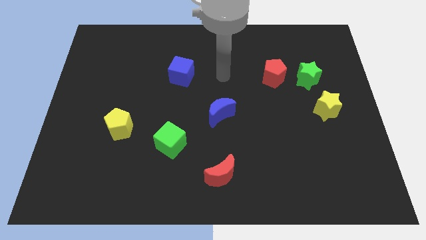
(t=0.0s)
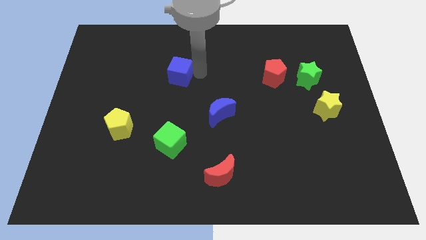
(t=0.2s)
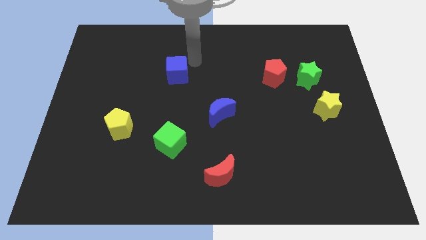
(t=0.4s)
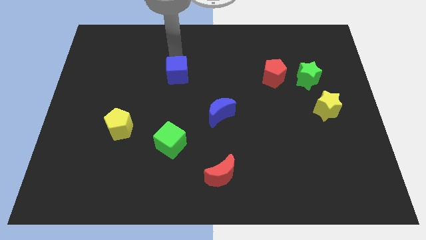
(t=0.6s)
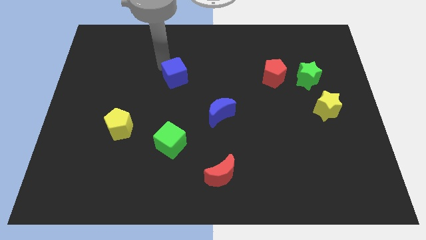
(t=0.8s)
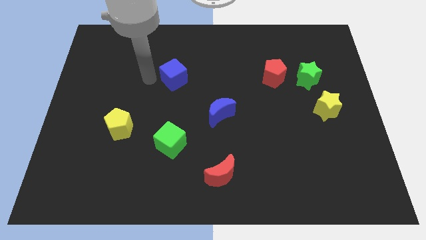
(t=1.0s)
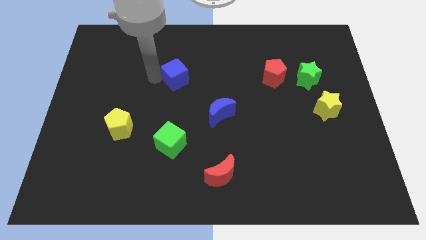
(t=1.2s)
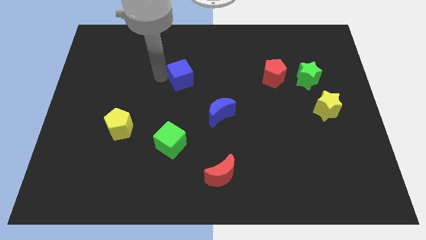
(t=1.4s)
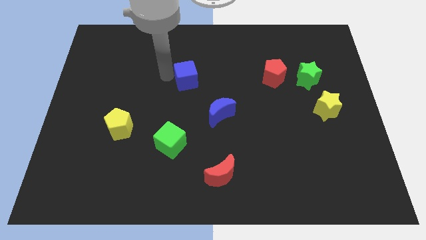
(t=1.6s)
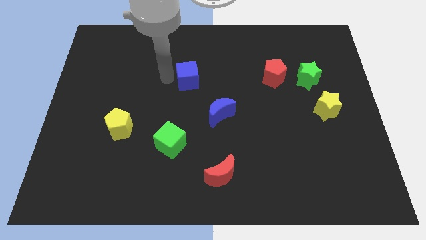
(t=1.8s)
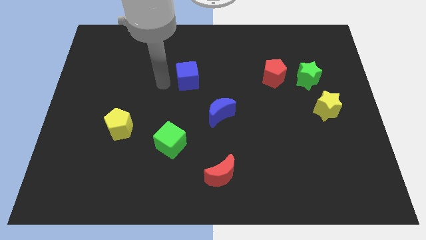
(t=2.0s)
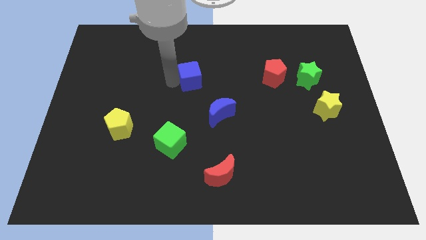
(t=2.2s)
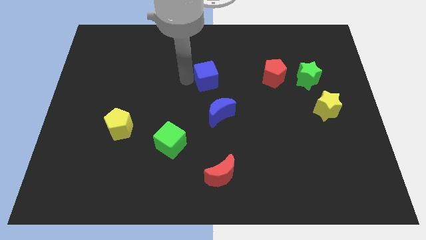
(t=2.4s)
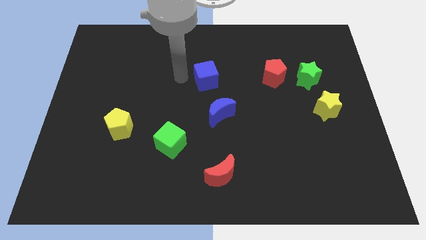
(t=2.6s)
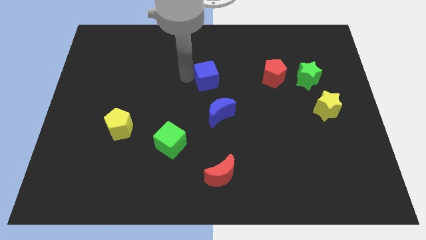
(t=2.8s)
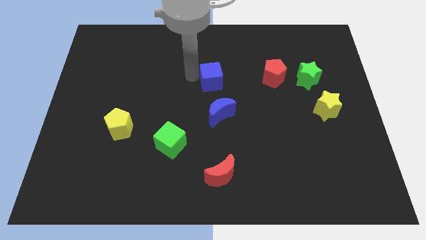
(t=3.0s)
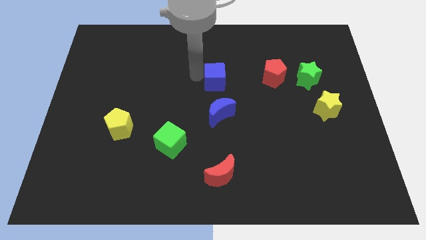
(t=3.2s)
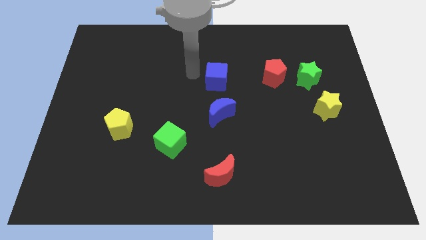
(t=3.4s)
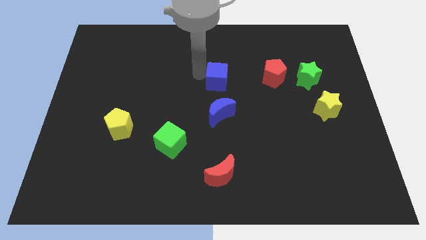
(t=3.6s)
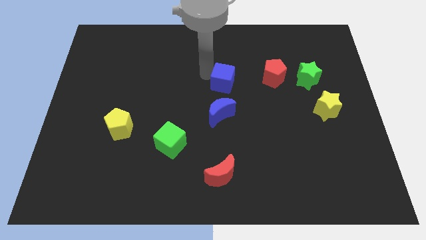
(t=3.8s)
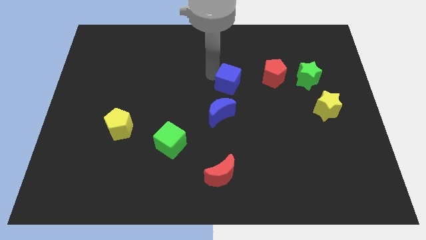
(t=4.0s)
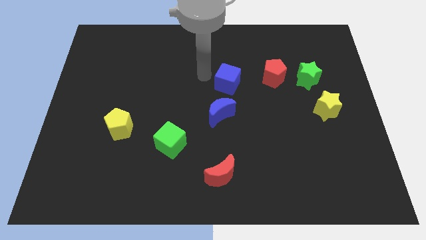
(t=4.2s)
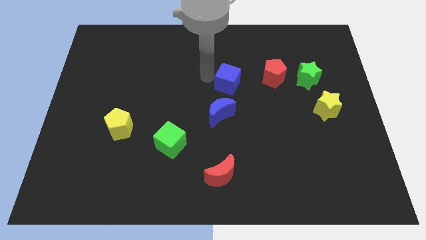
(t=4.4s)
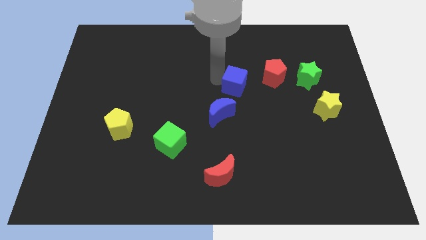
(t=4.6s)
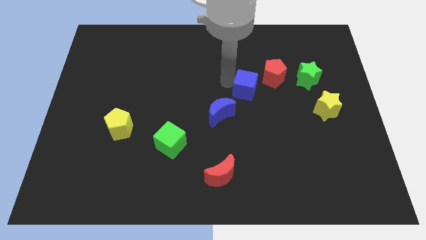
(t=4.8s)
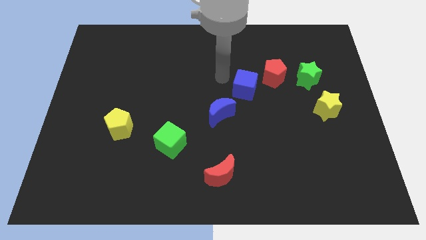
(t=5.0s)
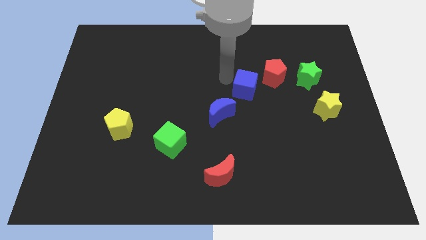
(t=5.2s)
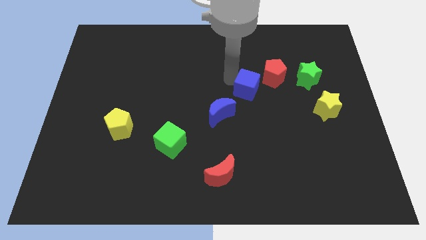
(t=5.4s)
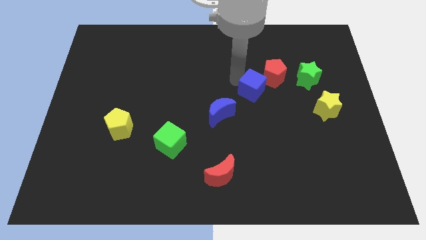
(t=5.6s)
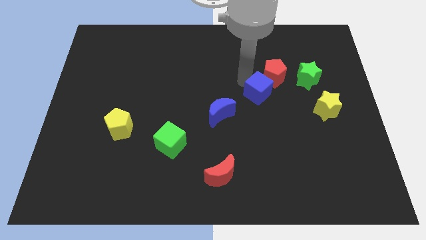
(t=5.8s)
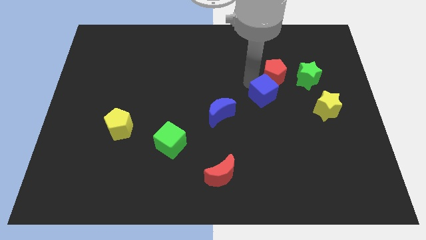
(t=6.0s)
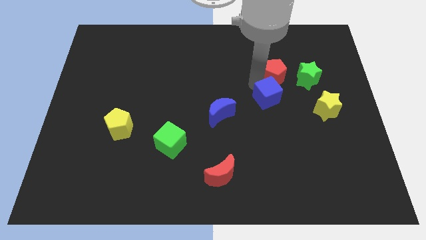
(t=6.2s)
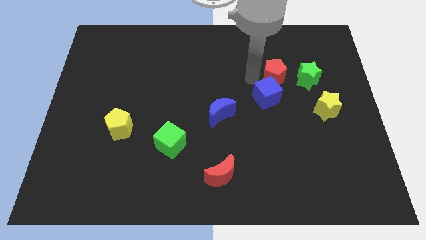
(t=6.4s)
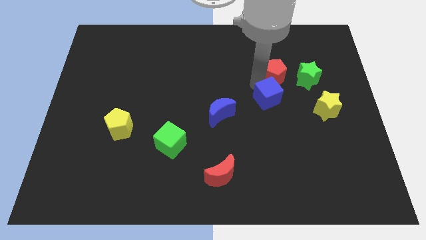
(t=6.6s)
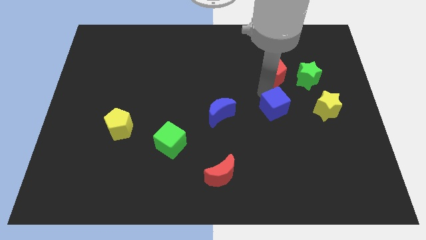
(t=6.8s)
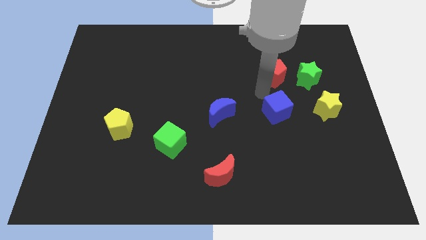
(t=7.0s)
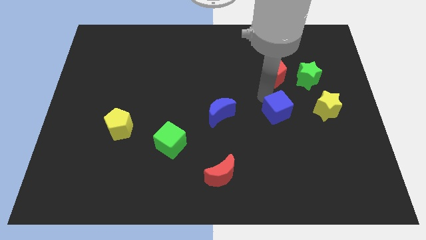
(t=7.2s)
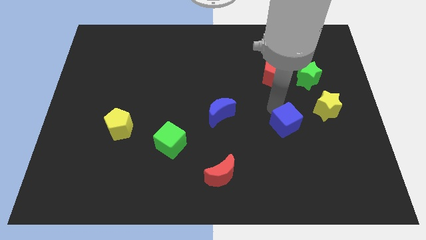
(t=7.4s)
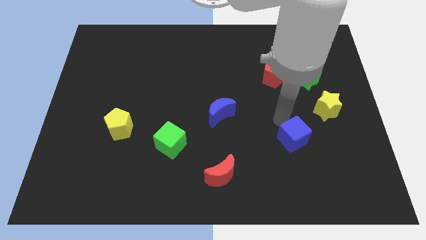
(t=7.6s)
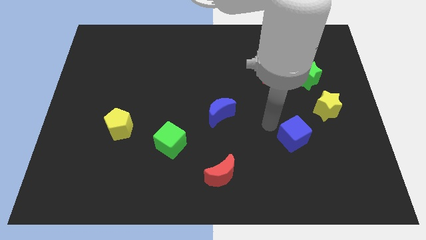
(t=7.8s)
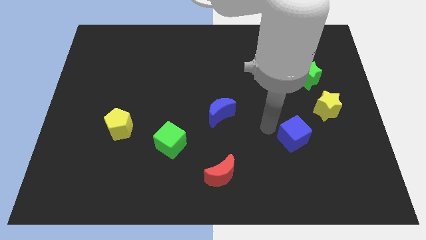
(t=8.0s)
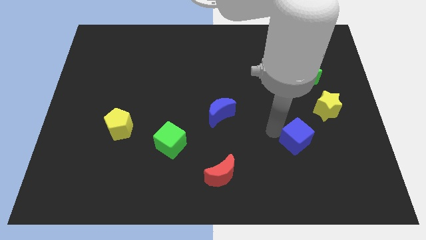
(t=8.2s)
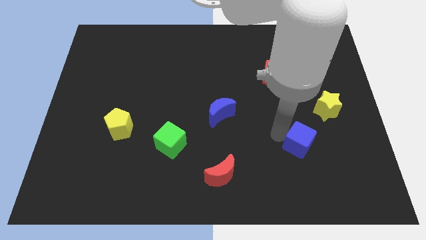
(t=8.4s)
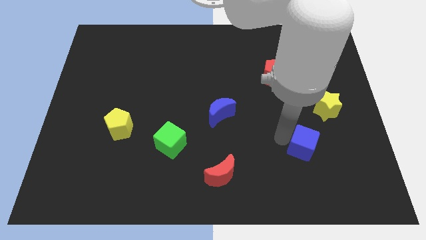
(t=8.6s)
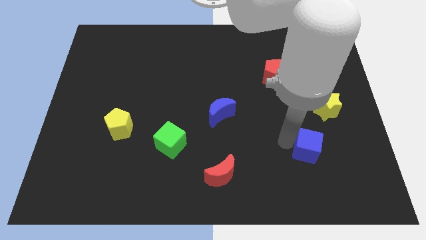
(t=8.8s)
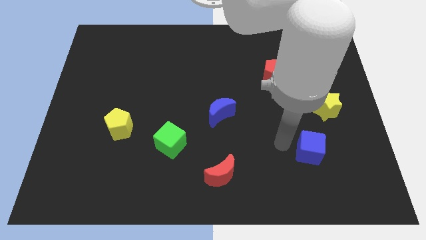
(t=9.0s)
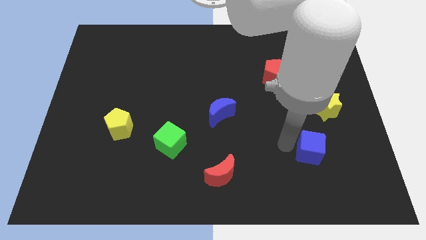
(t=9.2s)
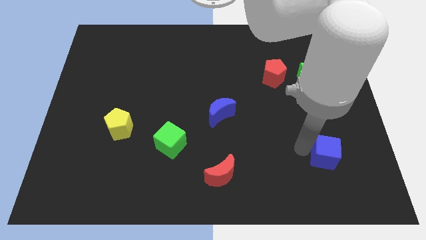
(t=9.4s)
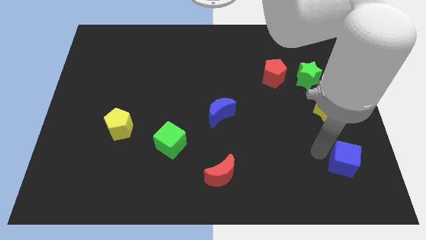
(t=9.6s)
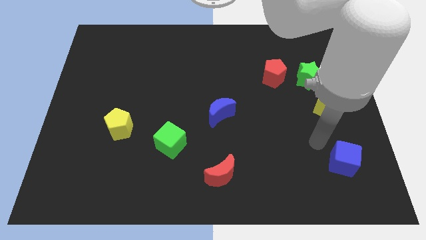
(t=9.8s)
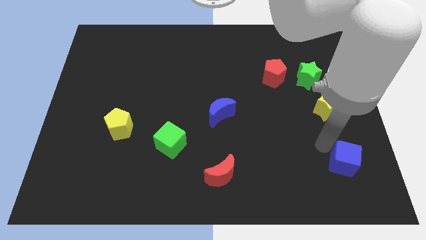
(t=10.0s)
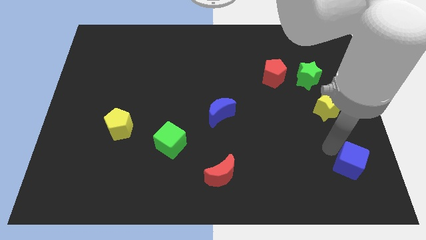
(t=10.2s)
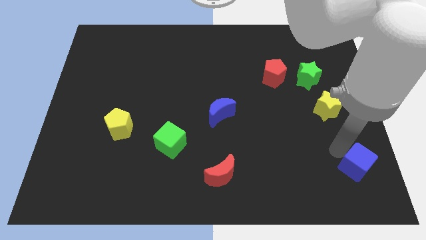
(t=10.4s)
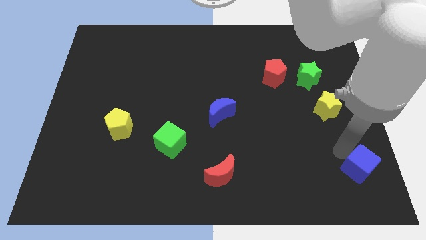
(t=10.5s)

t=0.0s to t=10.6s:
push the blue cube to the bottom right of the board

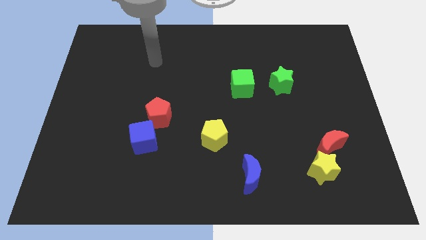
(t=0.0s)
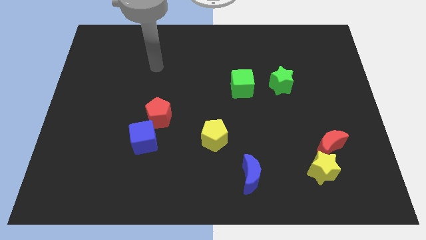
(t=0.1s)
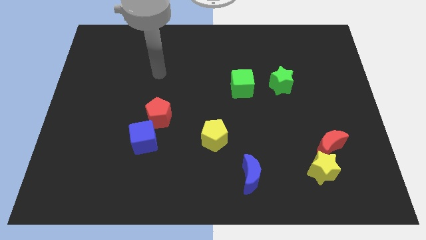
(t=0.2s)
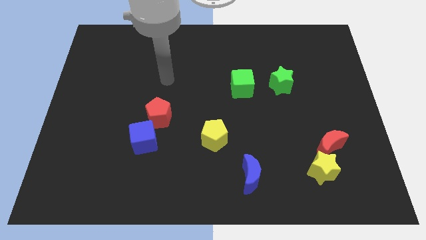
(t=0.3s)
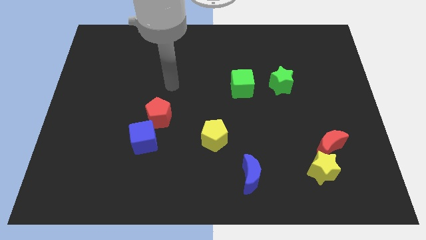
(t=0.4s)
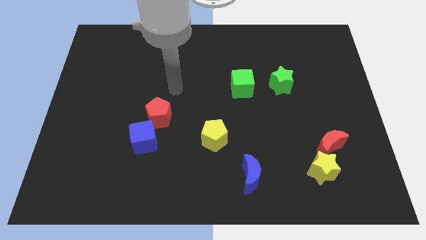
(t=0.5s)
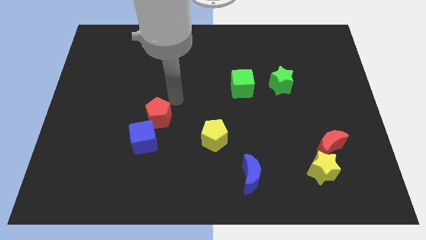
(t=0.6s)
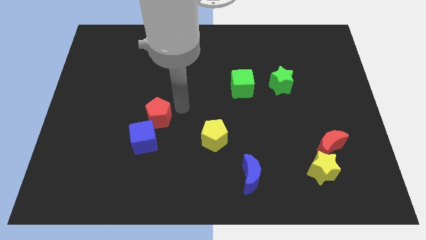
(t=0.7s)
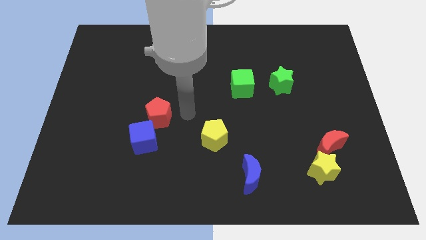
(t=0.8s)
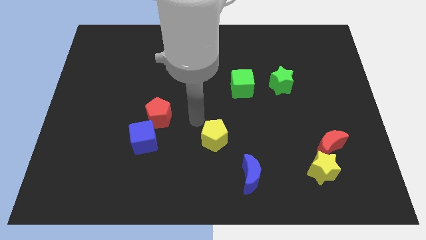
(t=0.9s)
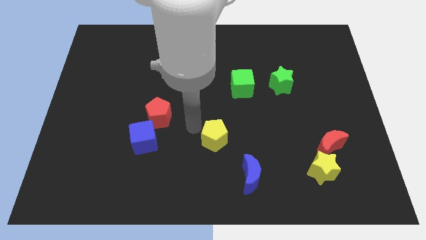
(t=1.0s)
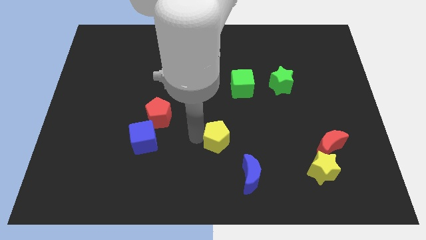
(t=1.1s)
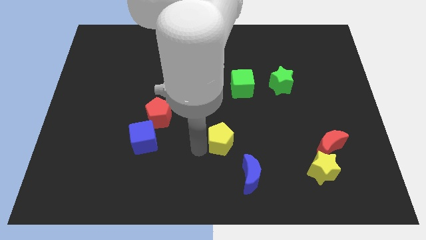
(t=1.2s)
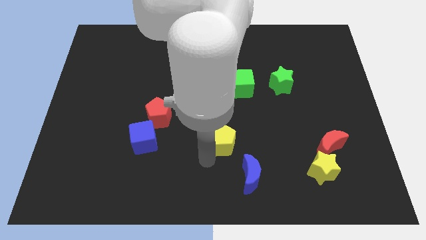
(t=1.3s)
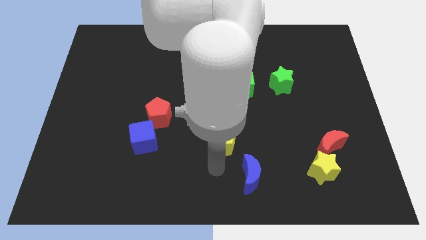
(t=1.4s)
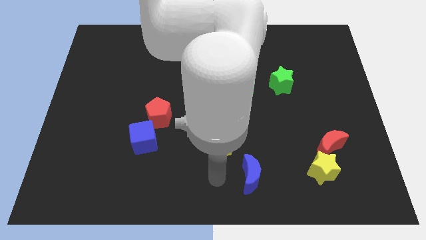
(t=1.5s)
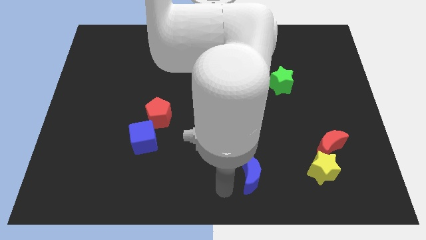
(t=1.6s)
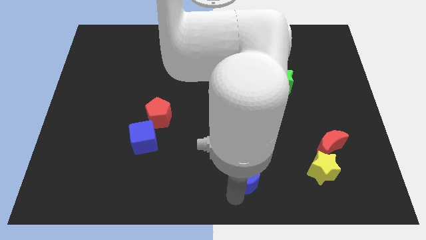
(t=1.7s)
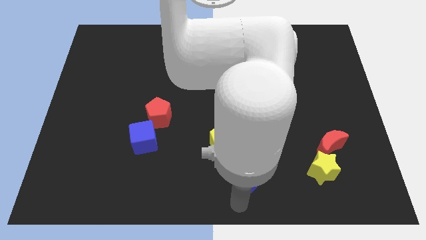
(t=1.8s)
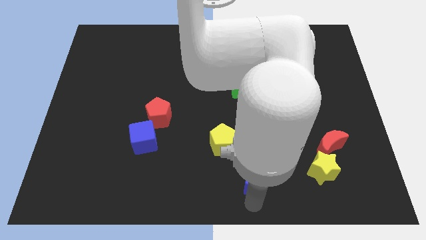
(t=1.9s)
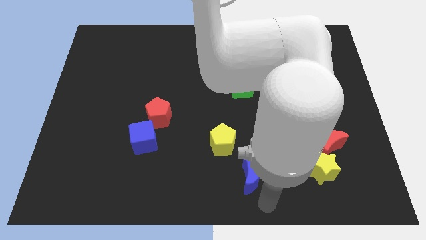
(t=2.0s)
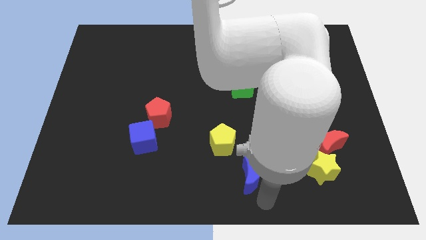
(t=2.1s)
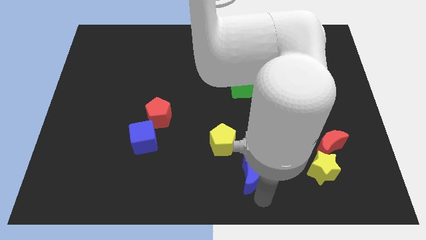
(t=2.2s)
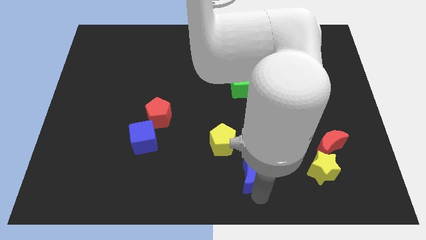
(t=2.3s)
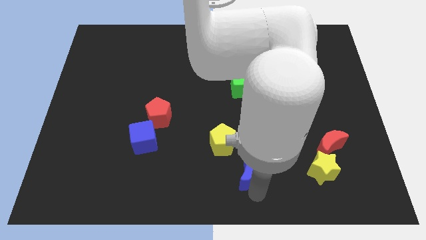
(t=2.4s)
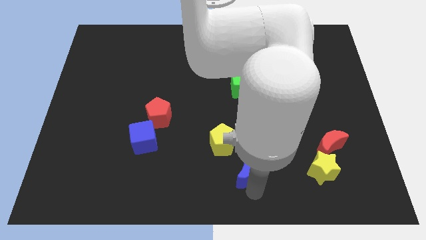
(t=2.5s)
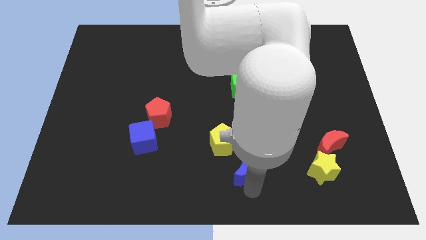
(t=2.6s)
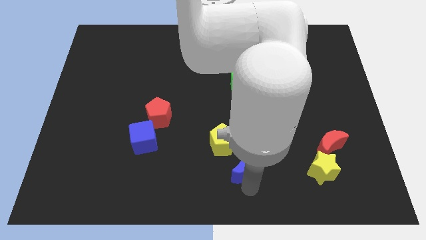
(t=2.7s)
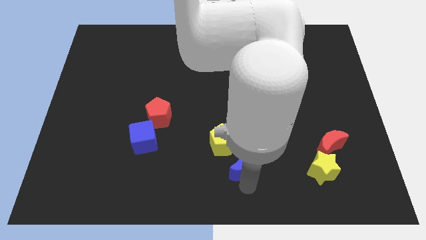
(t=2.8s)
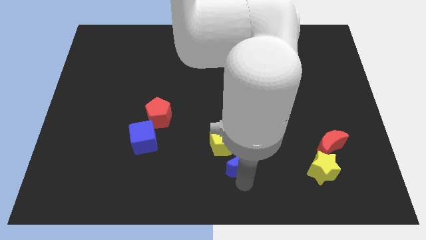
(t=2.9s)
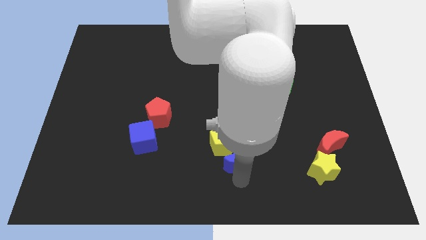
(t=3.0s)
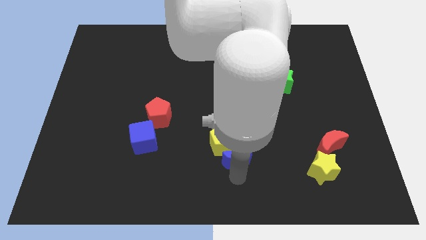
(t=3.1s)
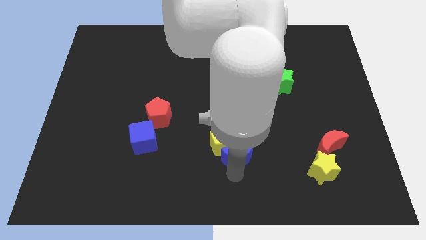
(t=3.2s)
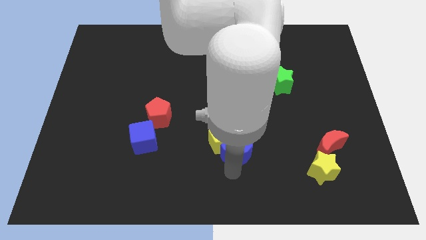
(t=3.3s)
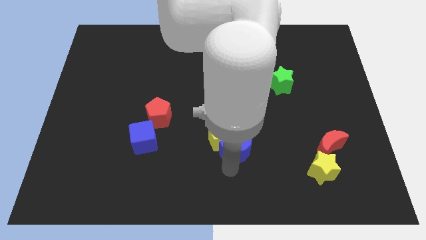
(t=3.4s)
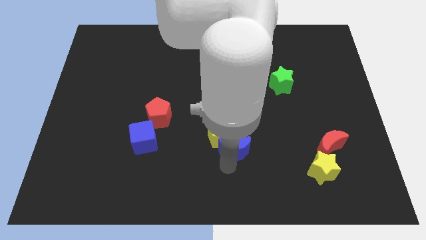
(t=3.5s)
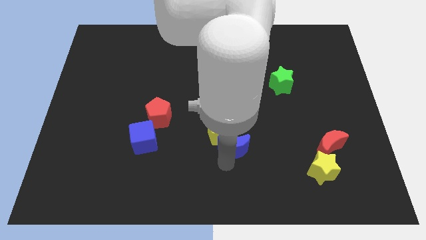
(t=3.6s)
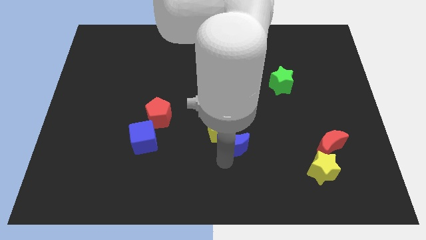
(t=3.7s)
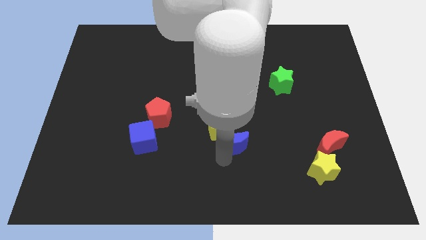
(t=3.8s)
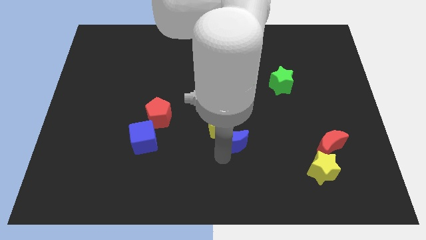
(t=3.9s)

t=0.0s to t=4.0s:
slide the blue moon to the middle of the board
